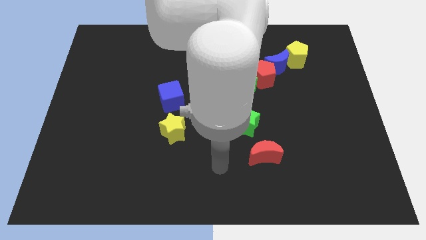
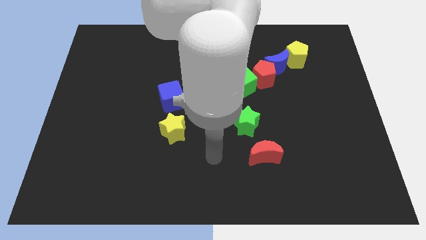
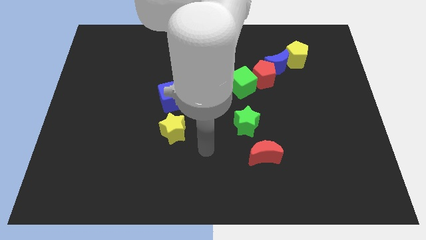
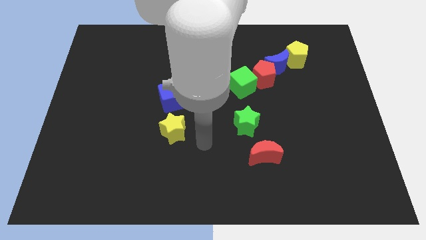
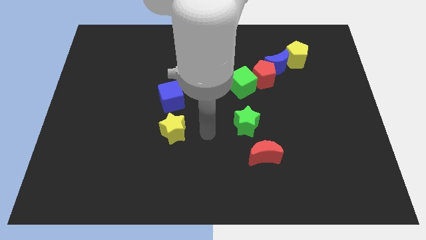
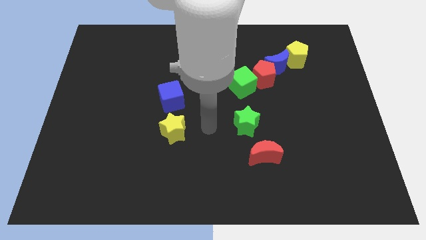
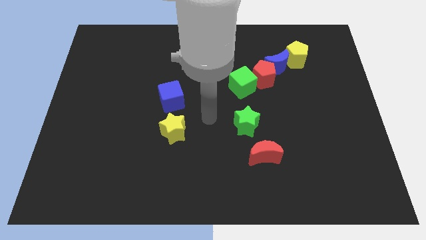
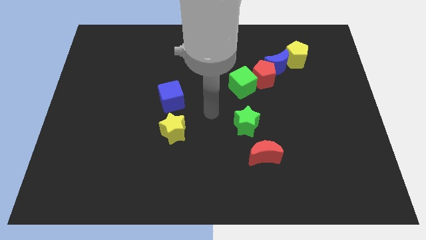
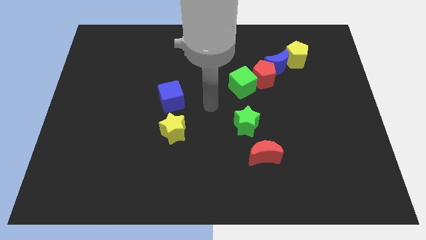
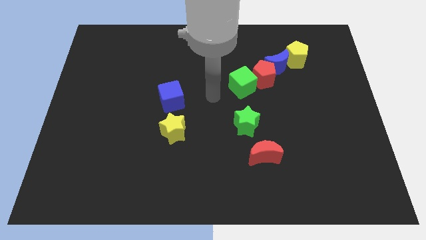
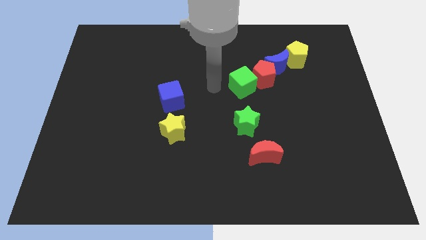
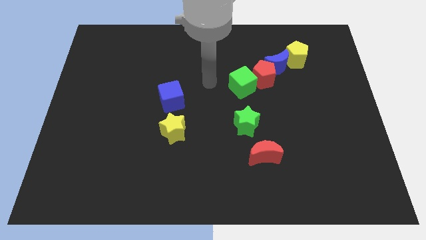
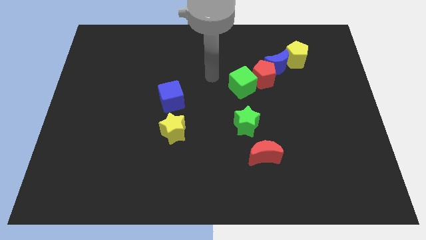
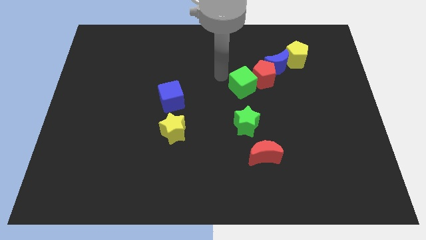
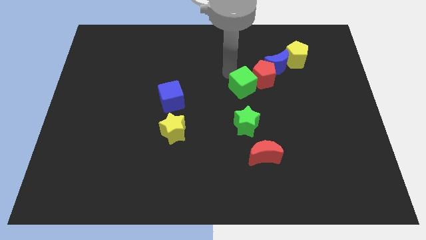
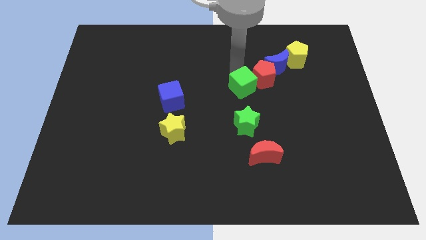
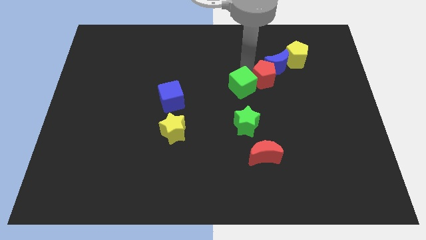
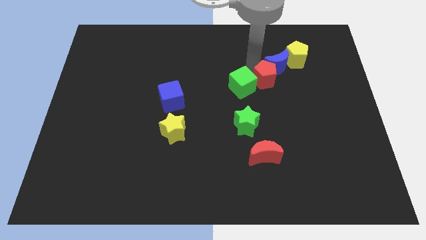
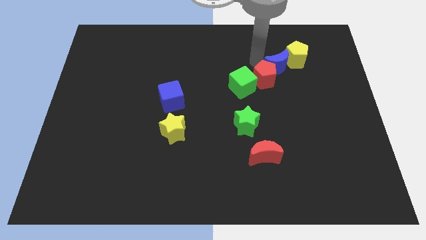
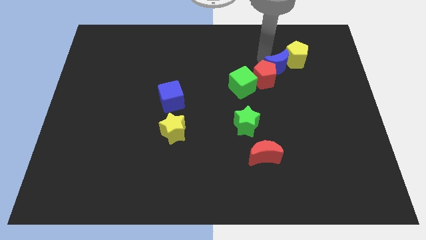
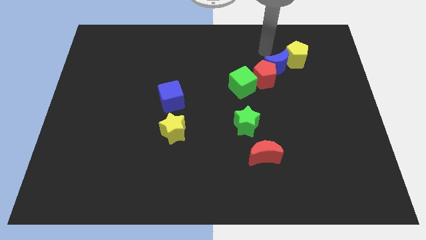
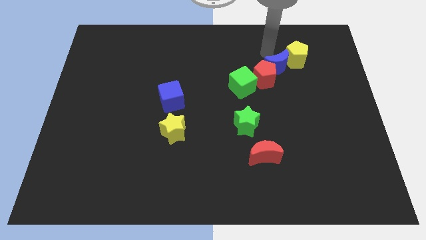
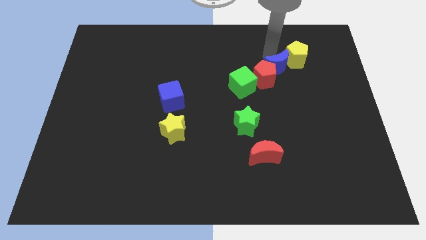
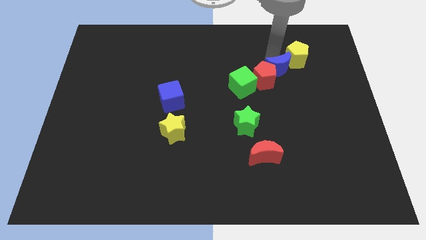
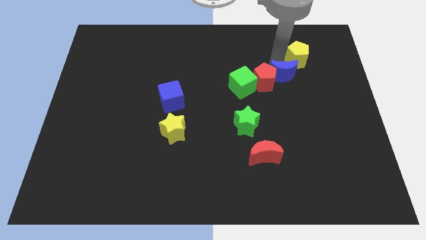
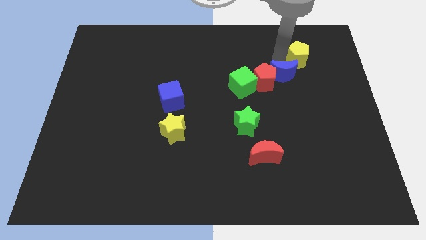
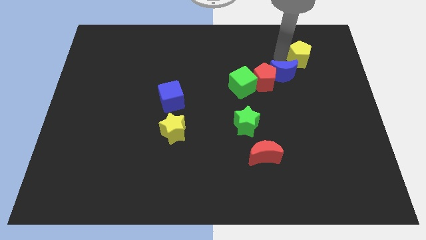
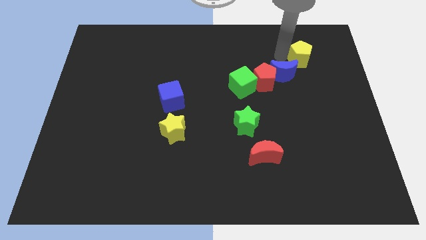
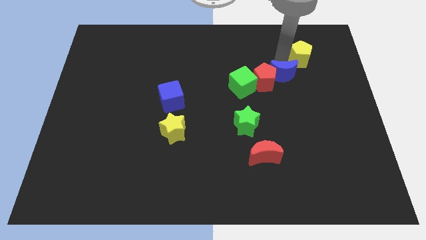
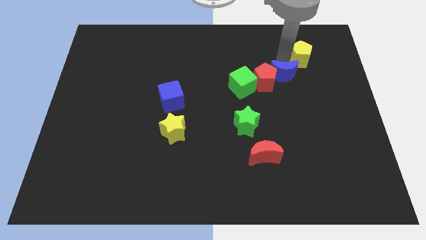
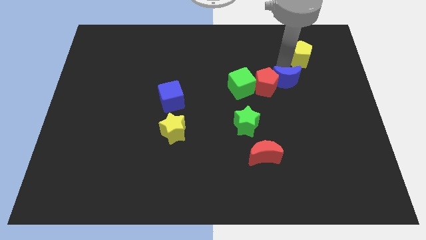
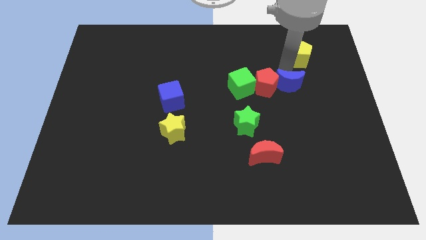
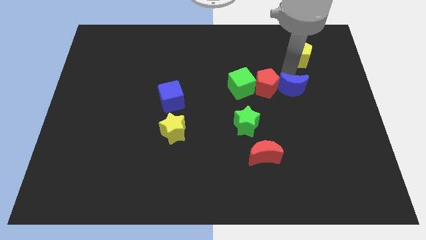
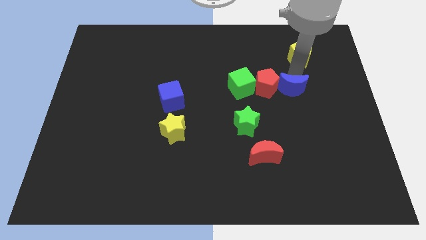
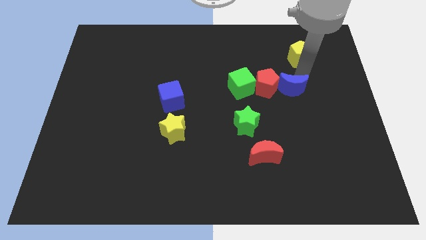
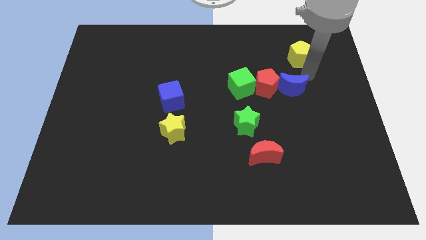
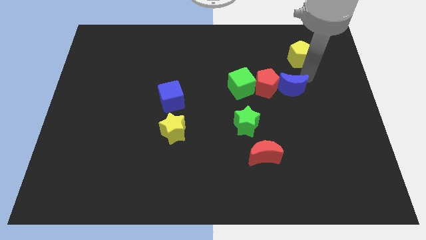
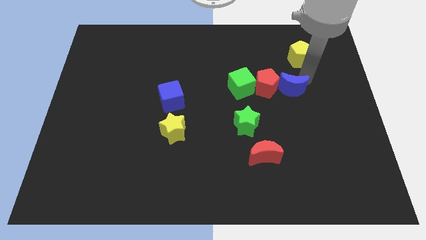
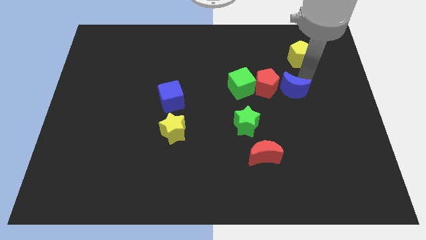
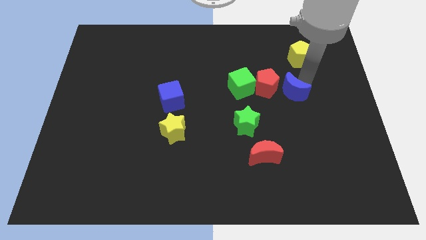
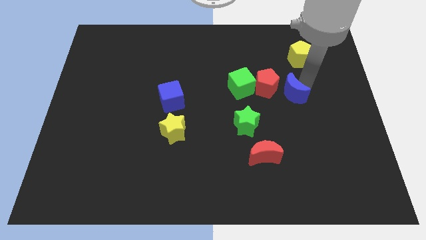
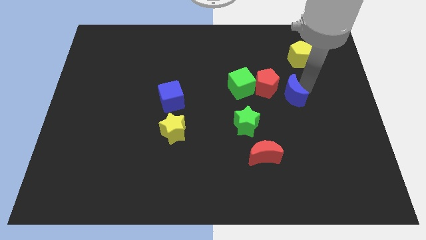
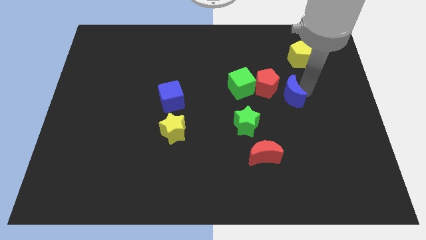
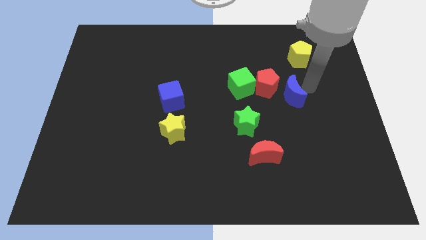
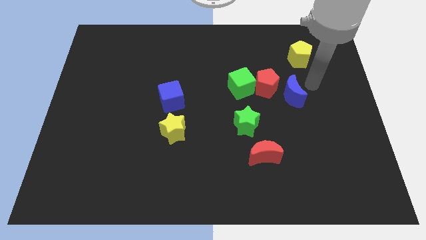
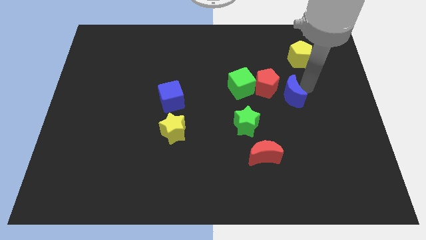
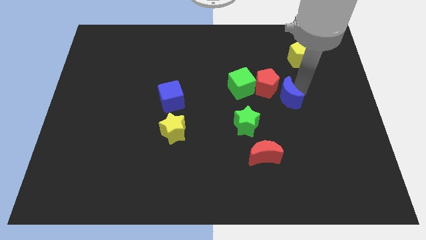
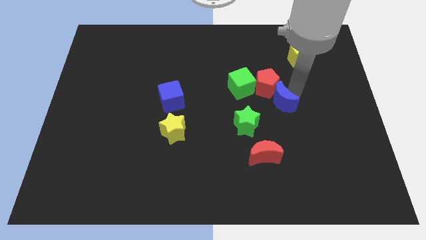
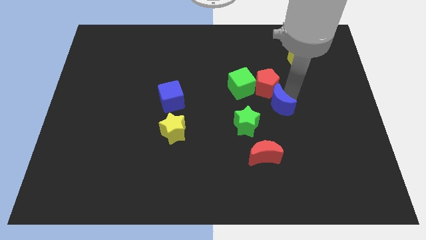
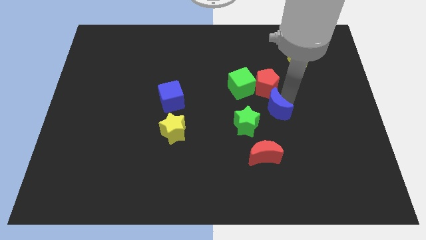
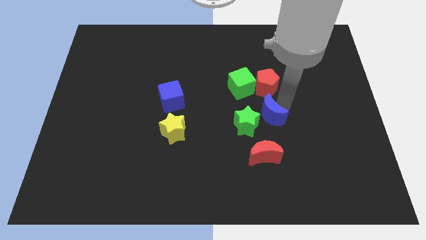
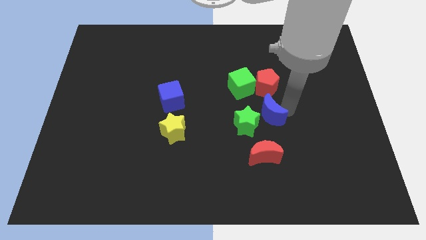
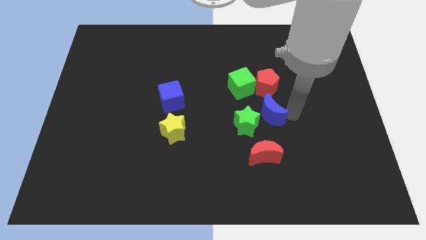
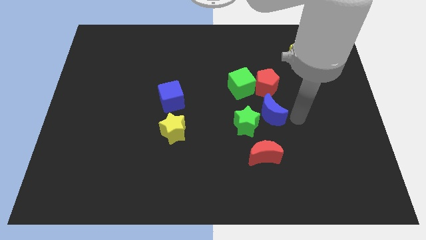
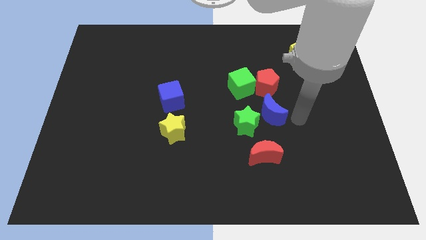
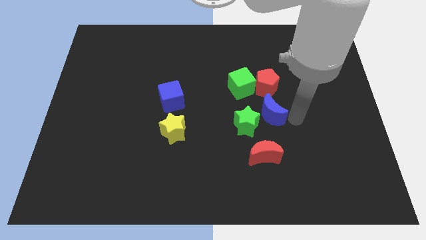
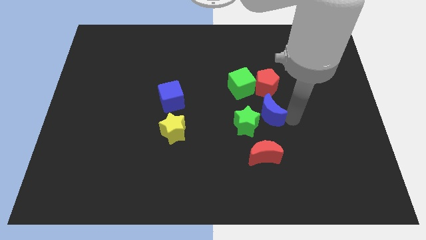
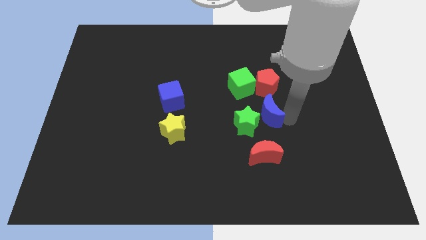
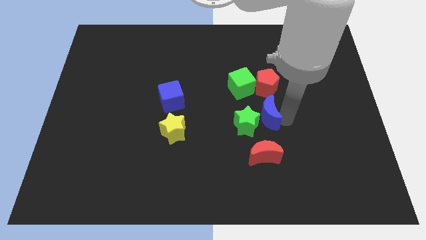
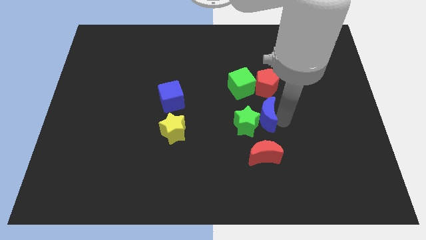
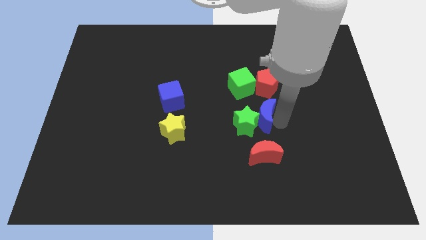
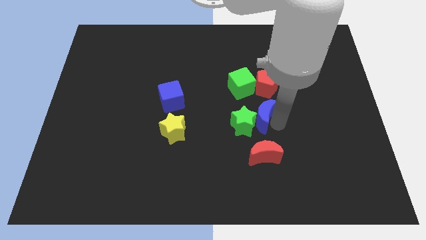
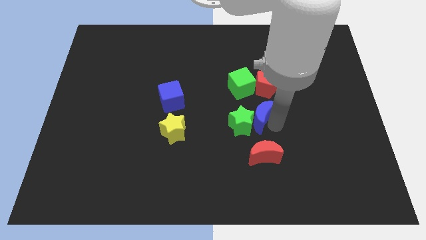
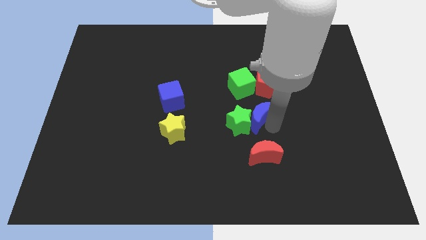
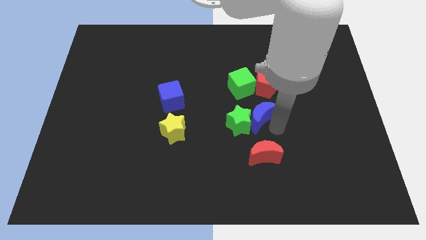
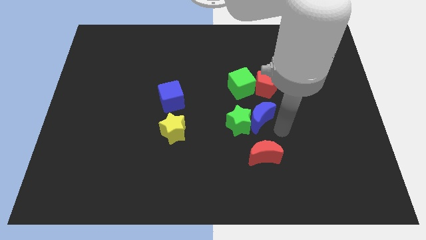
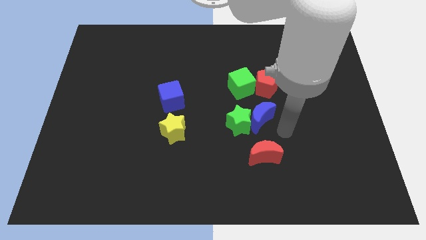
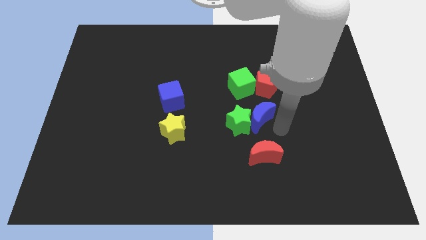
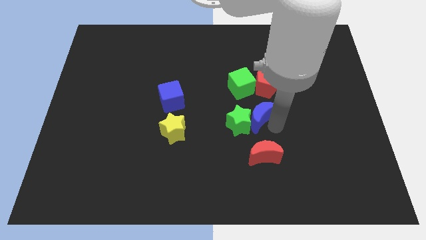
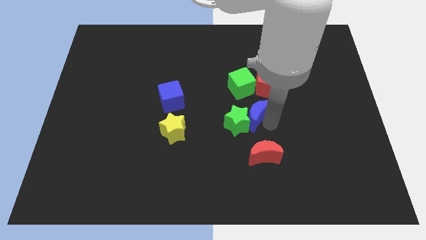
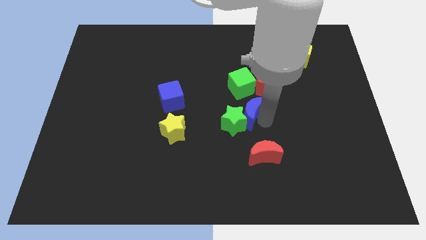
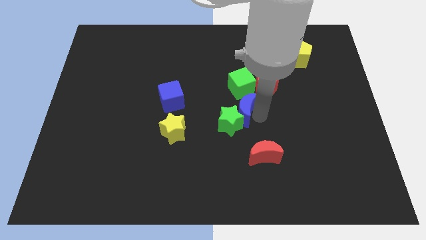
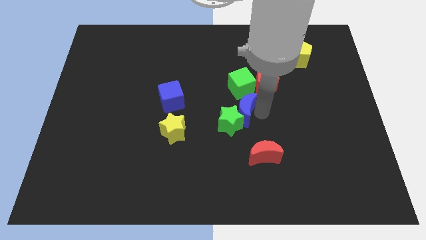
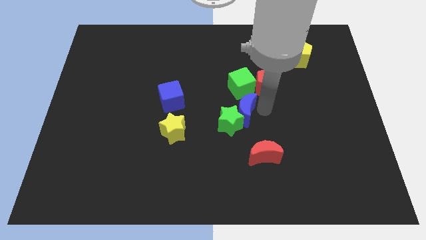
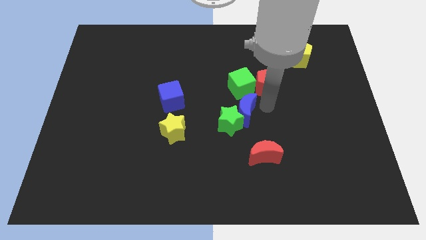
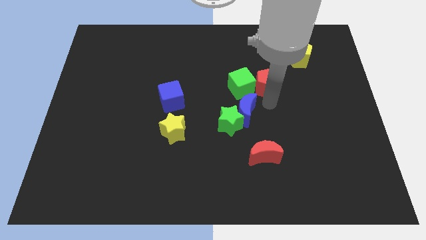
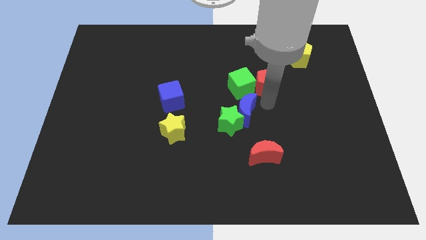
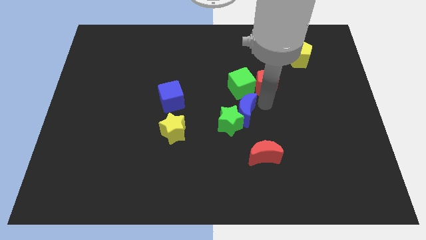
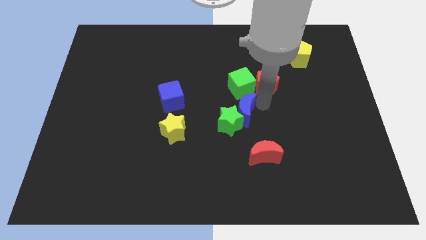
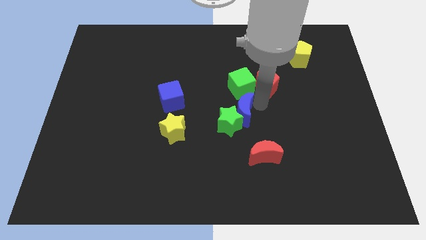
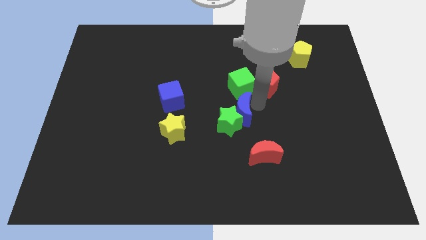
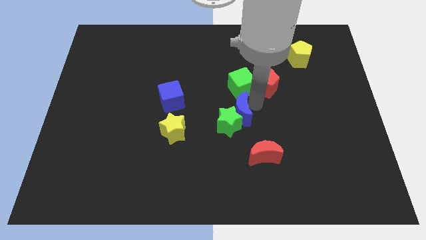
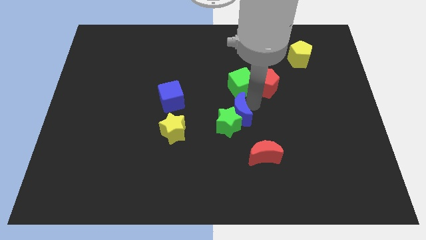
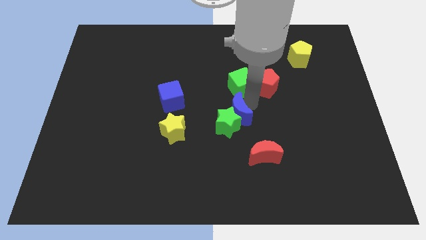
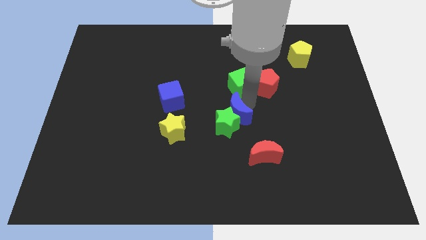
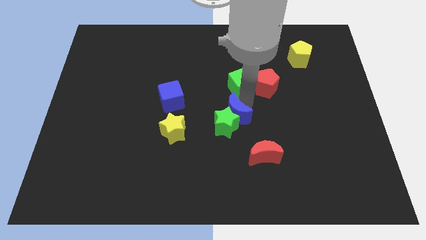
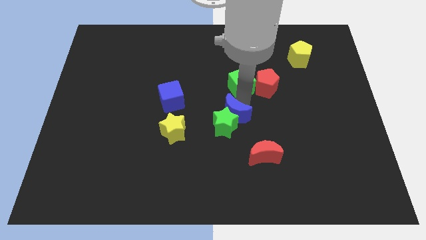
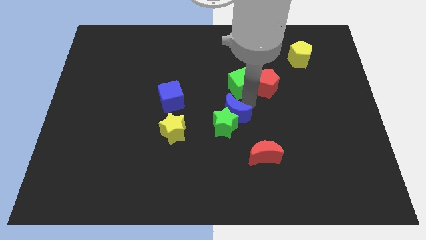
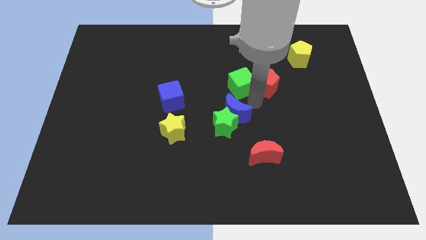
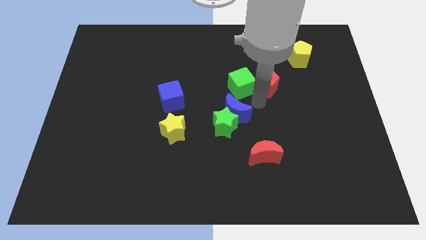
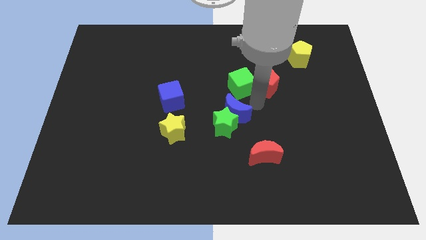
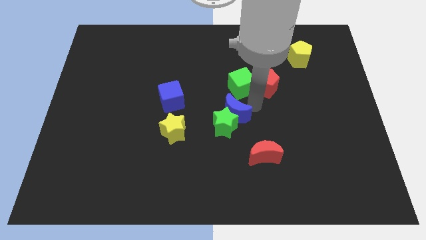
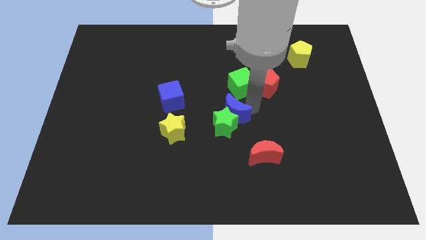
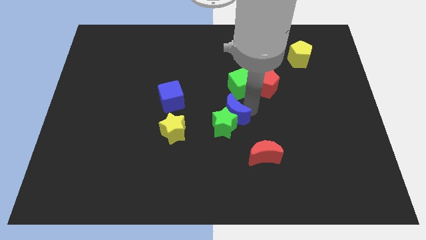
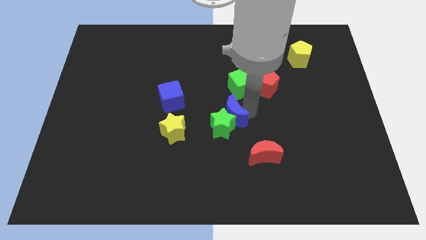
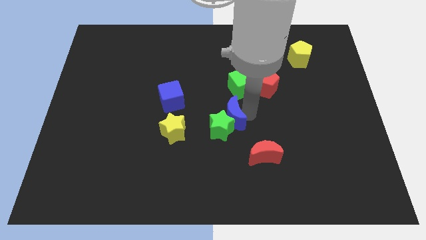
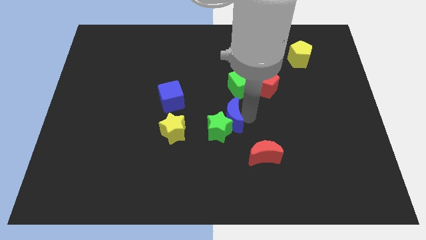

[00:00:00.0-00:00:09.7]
push the blue moon downwards and to the left
